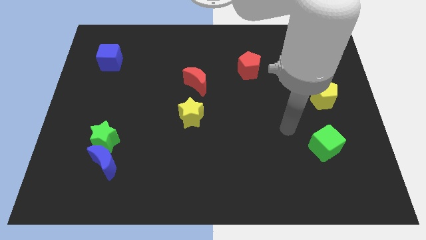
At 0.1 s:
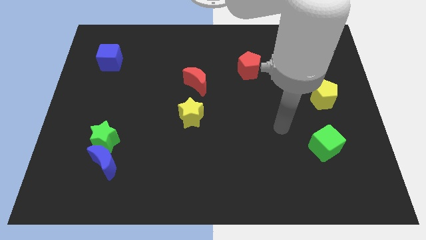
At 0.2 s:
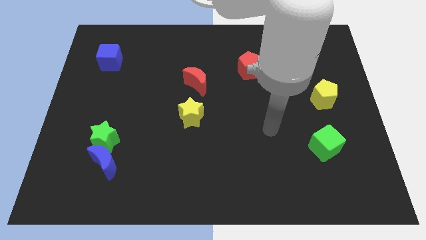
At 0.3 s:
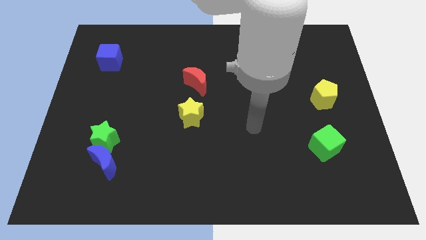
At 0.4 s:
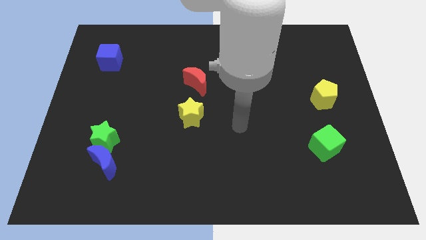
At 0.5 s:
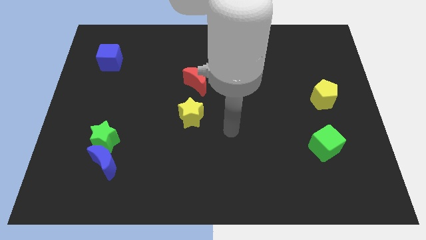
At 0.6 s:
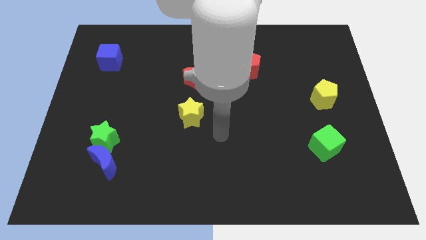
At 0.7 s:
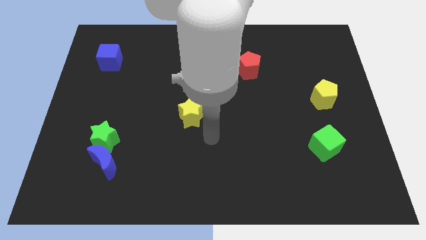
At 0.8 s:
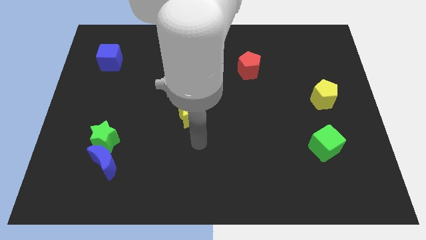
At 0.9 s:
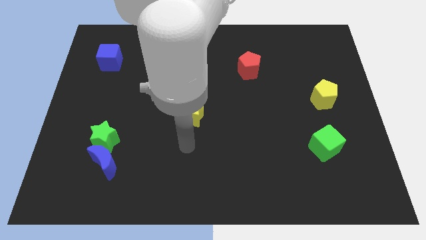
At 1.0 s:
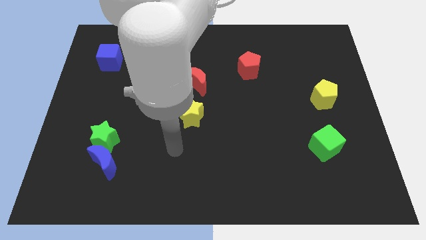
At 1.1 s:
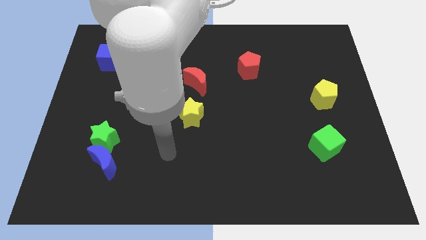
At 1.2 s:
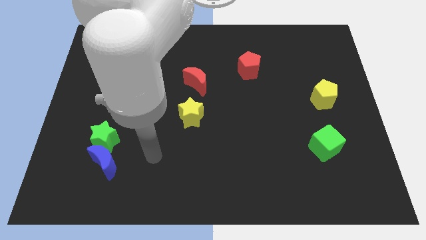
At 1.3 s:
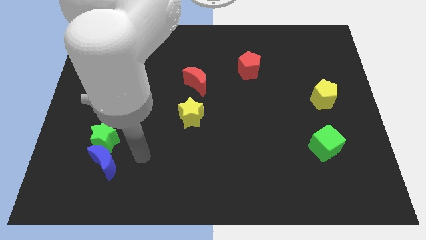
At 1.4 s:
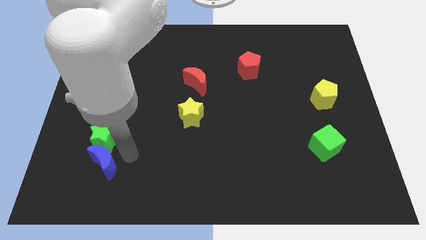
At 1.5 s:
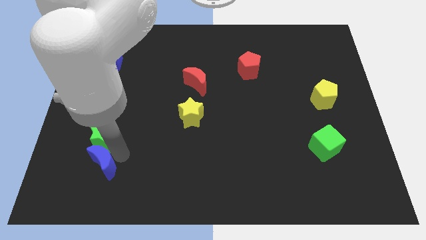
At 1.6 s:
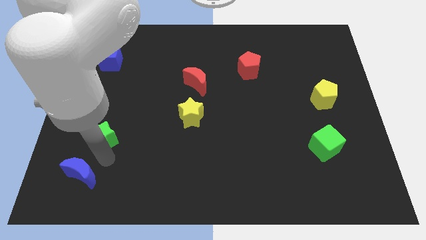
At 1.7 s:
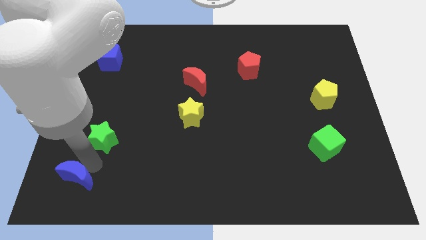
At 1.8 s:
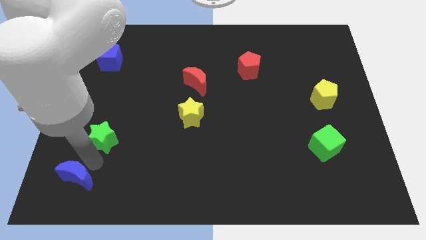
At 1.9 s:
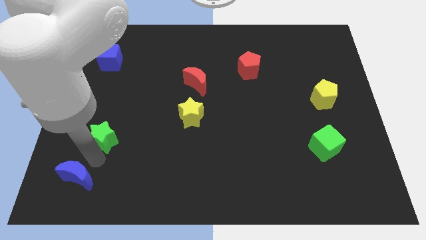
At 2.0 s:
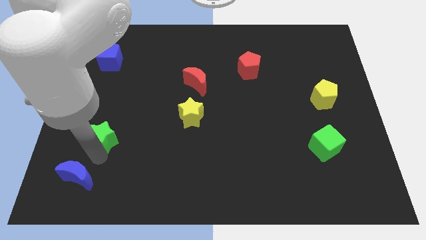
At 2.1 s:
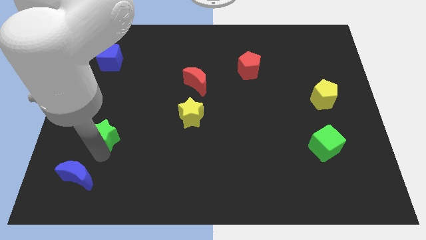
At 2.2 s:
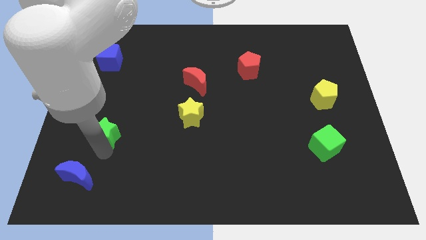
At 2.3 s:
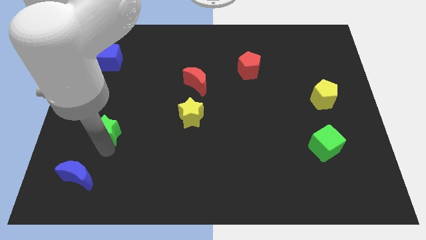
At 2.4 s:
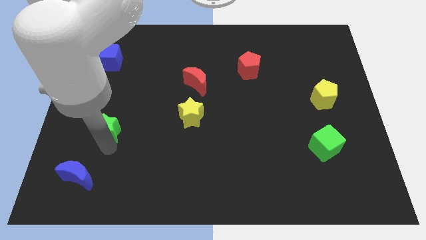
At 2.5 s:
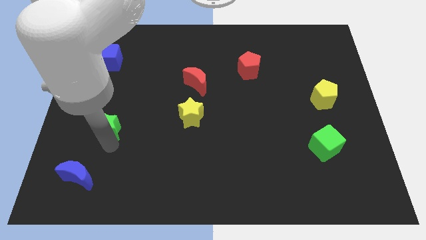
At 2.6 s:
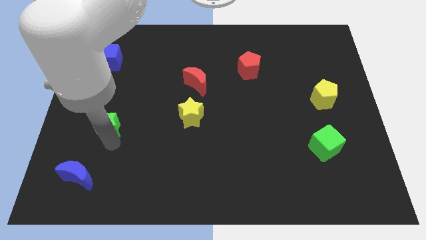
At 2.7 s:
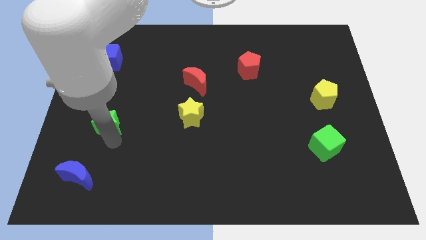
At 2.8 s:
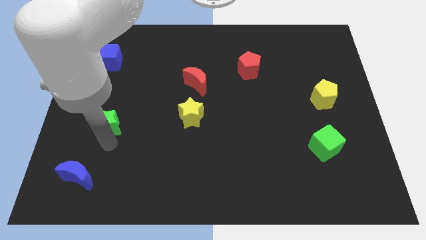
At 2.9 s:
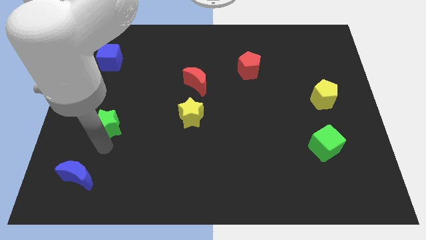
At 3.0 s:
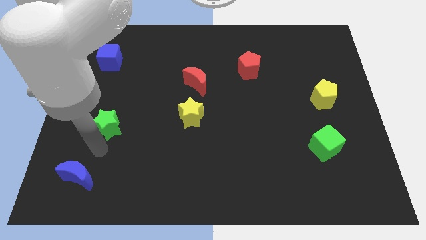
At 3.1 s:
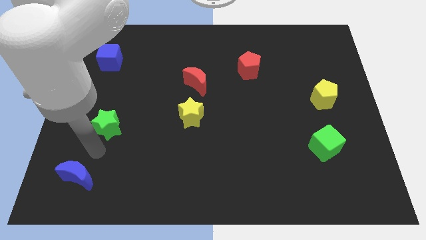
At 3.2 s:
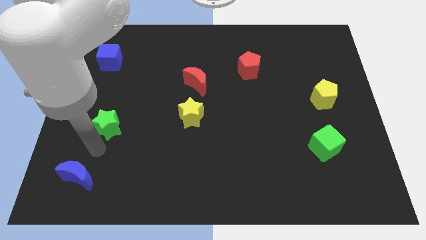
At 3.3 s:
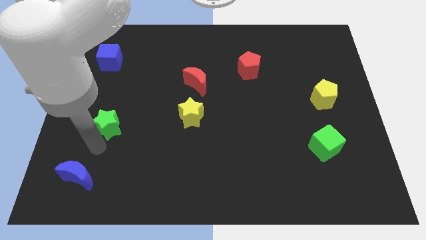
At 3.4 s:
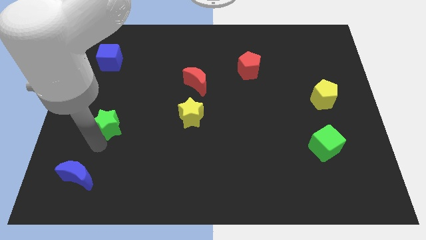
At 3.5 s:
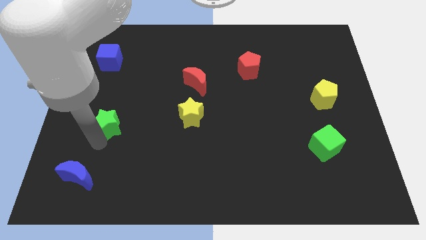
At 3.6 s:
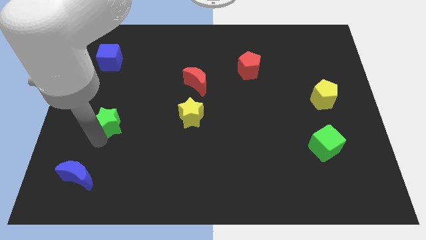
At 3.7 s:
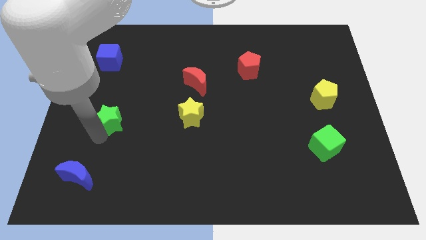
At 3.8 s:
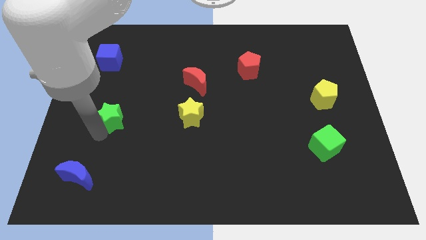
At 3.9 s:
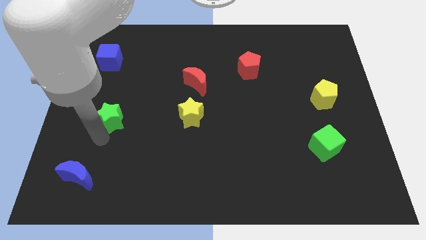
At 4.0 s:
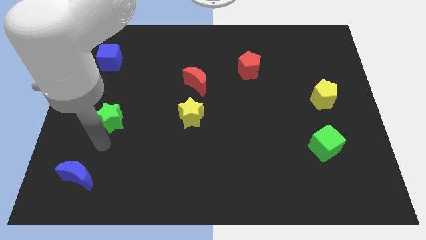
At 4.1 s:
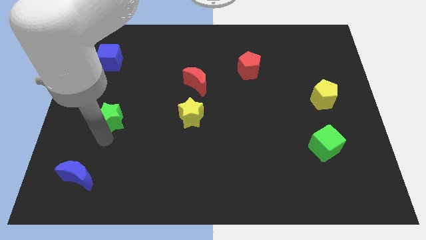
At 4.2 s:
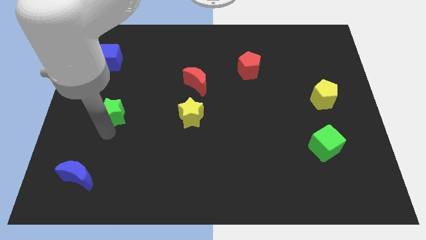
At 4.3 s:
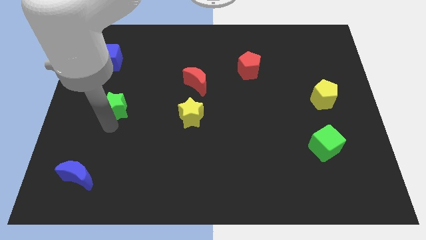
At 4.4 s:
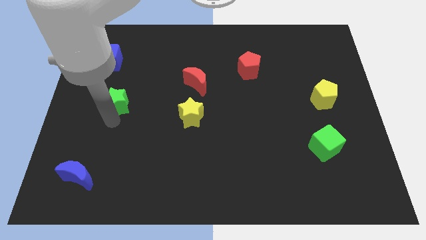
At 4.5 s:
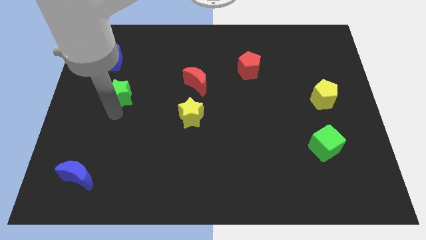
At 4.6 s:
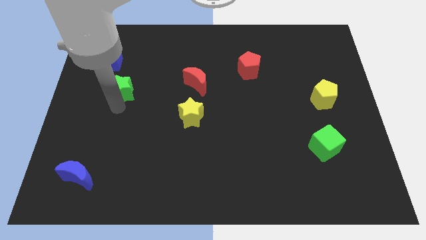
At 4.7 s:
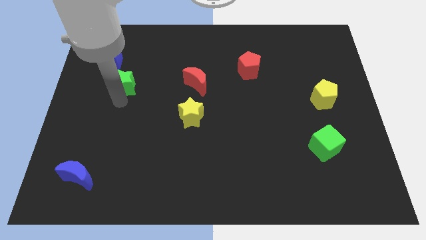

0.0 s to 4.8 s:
slide the green star to the bottom right of the blue cube

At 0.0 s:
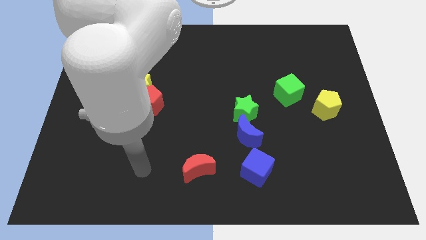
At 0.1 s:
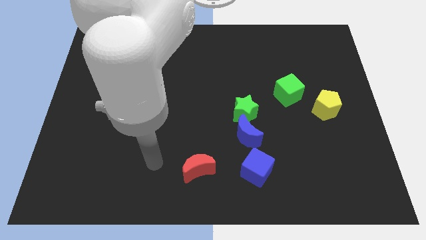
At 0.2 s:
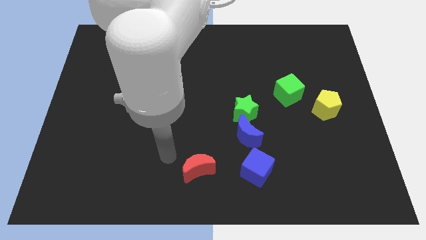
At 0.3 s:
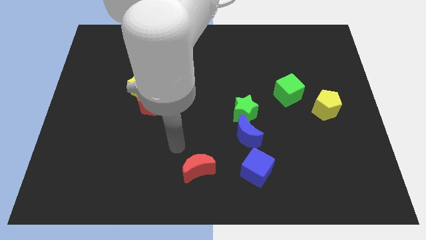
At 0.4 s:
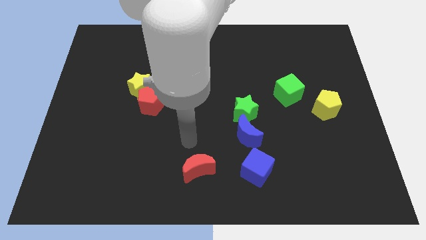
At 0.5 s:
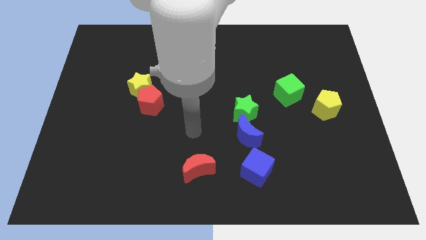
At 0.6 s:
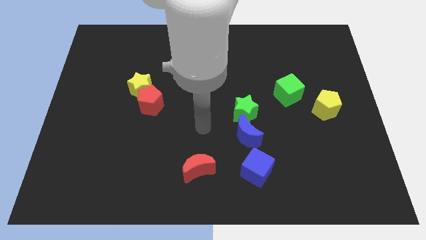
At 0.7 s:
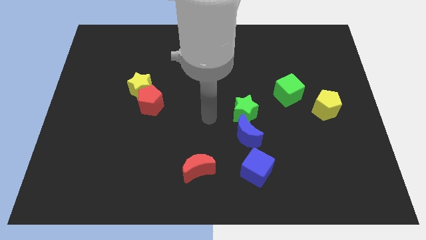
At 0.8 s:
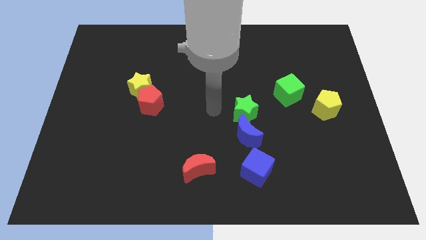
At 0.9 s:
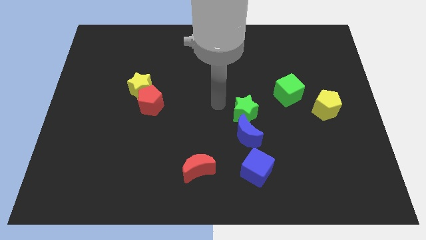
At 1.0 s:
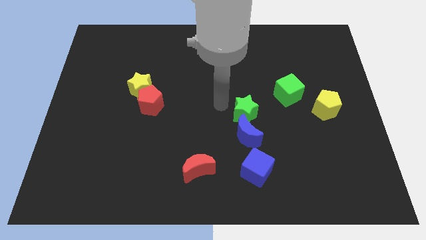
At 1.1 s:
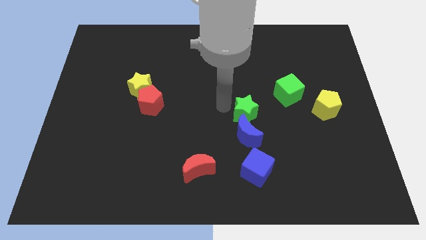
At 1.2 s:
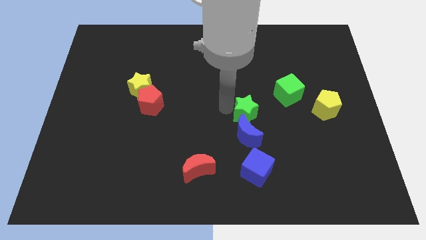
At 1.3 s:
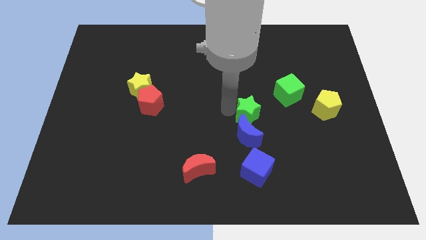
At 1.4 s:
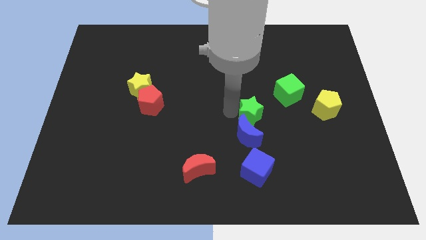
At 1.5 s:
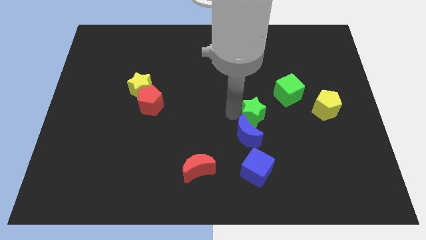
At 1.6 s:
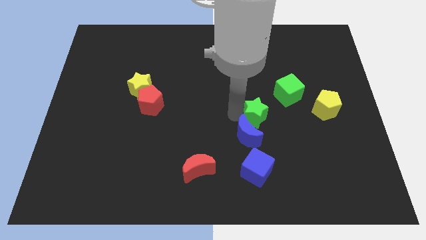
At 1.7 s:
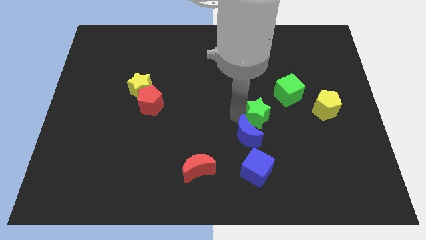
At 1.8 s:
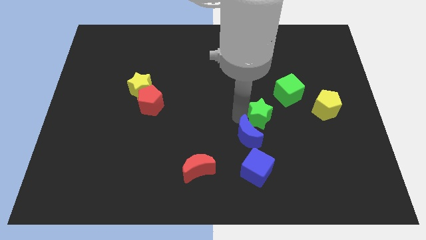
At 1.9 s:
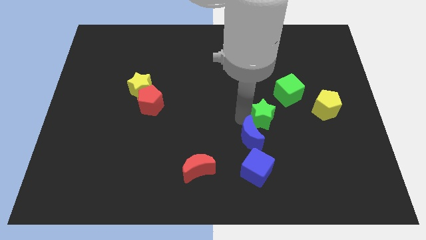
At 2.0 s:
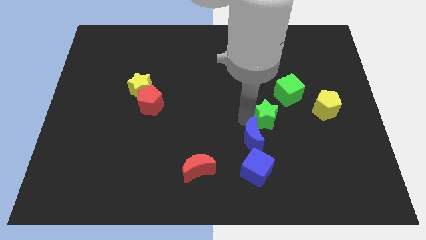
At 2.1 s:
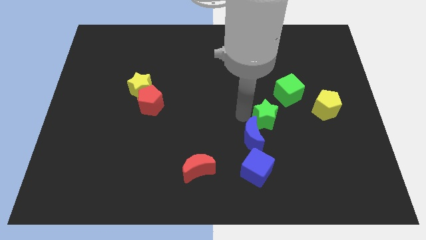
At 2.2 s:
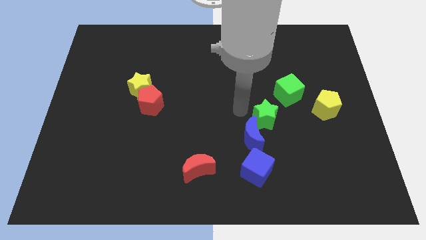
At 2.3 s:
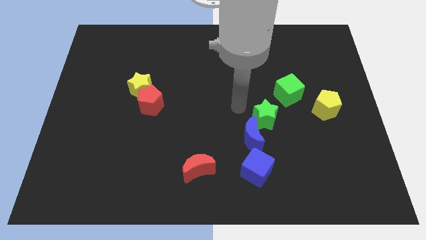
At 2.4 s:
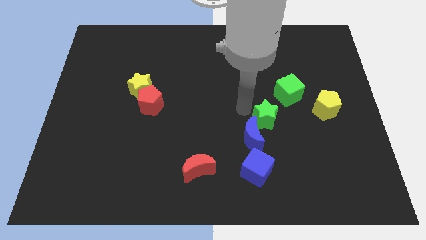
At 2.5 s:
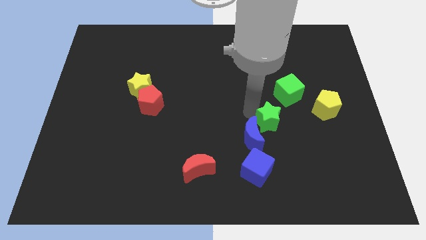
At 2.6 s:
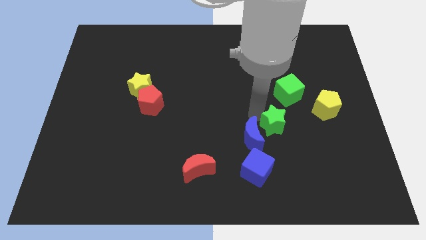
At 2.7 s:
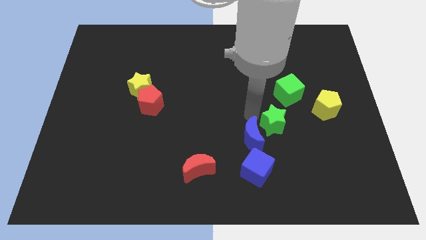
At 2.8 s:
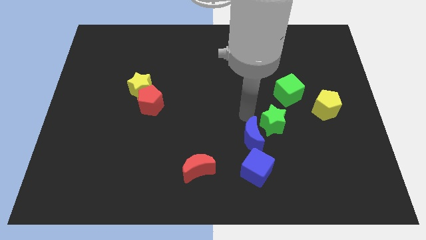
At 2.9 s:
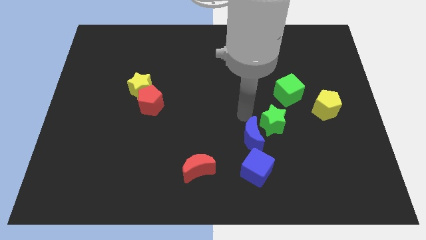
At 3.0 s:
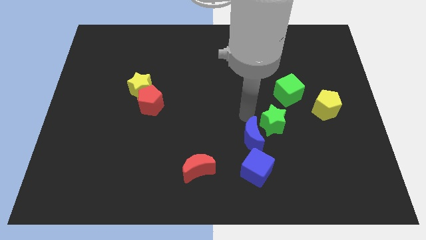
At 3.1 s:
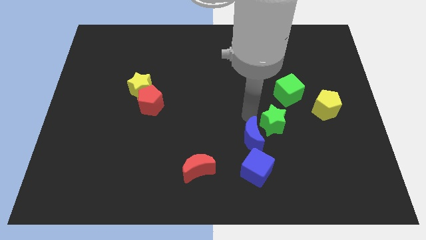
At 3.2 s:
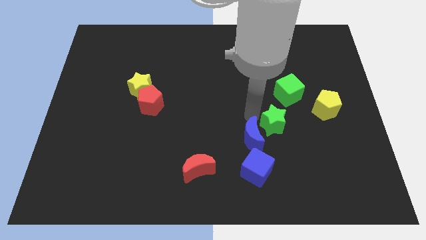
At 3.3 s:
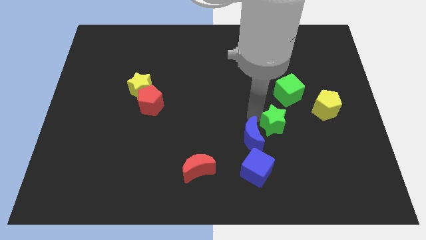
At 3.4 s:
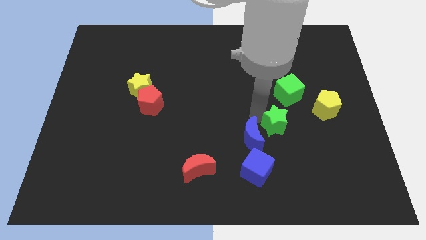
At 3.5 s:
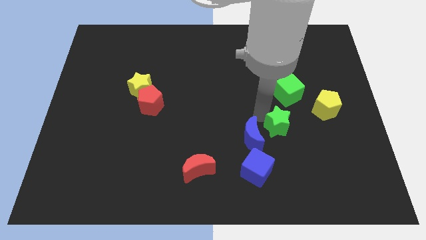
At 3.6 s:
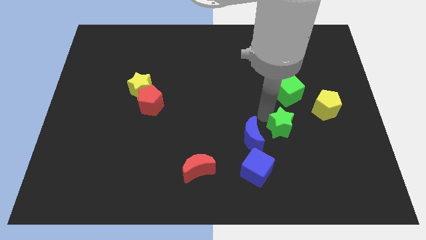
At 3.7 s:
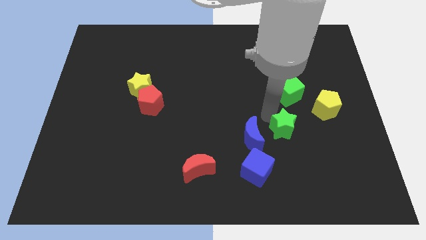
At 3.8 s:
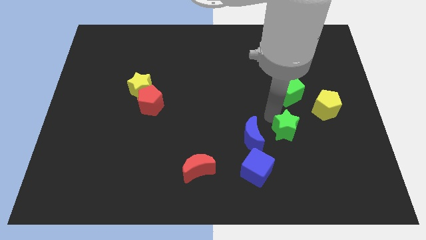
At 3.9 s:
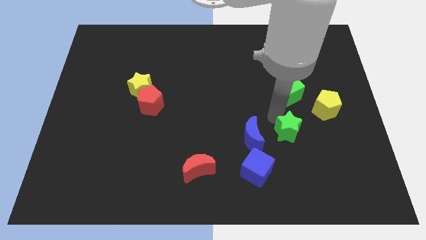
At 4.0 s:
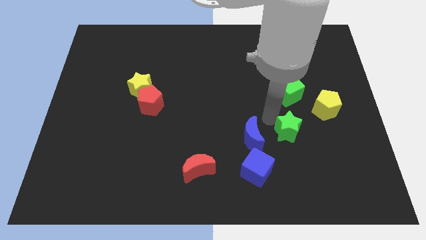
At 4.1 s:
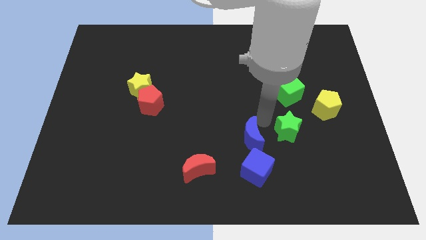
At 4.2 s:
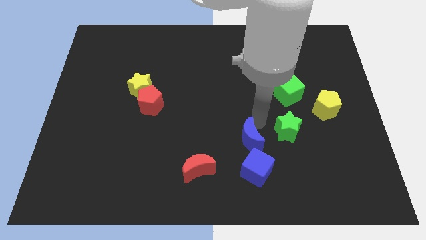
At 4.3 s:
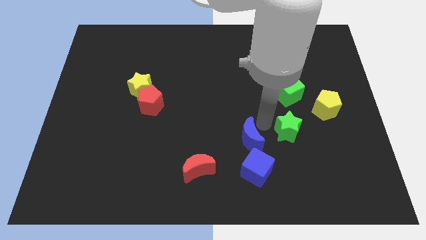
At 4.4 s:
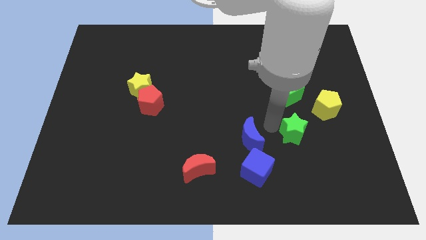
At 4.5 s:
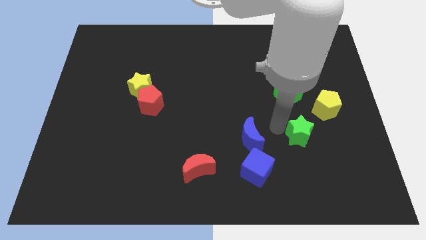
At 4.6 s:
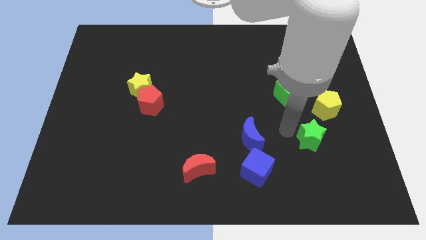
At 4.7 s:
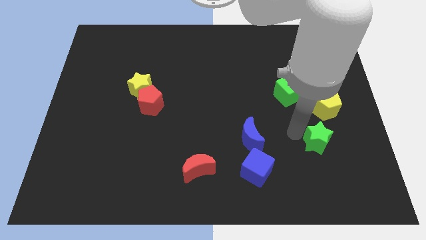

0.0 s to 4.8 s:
slide the green star below the yellow pentagon
